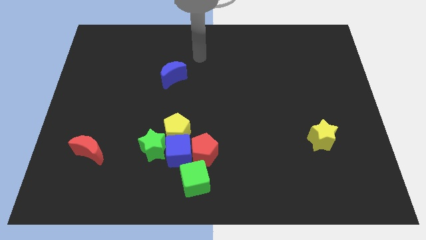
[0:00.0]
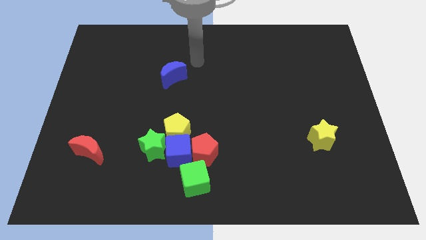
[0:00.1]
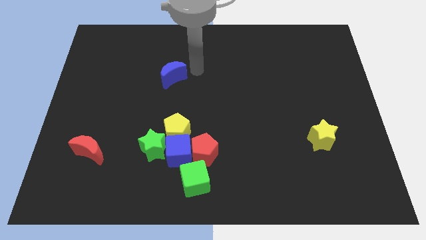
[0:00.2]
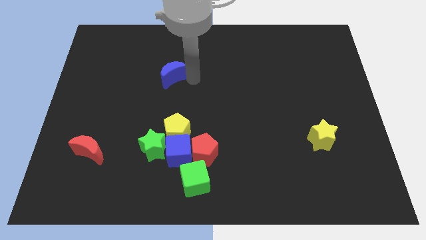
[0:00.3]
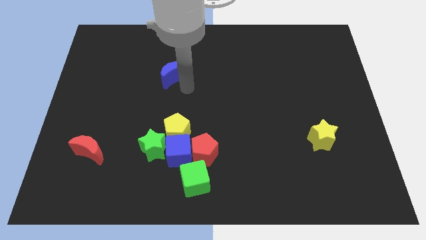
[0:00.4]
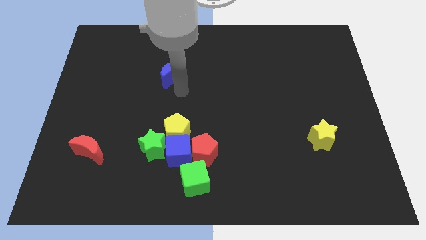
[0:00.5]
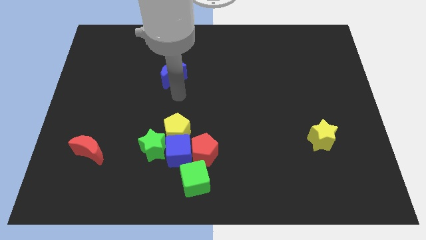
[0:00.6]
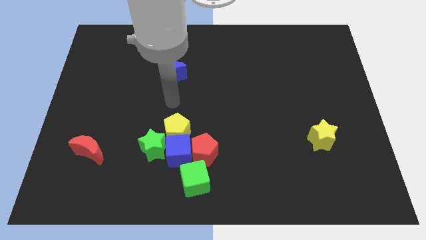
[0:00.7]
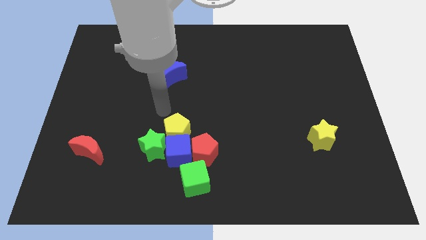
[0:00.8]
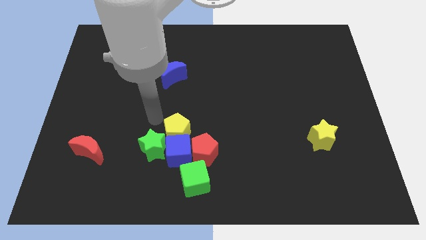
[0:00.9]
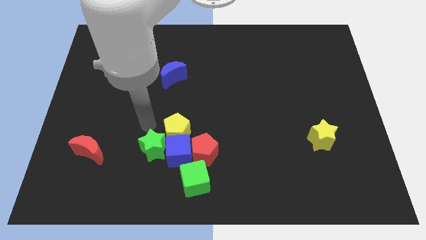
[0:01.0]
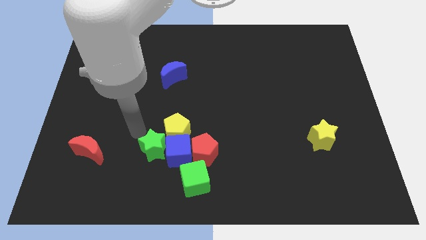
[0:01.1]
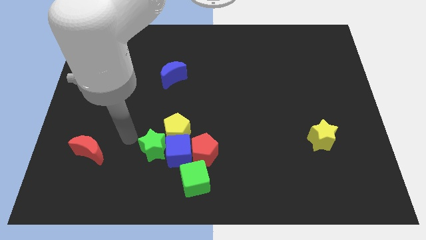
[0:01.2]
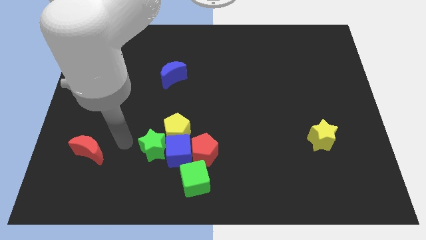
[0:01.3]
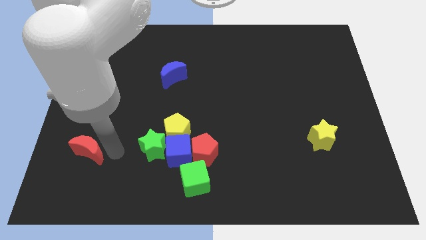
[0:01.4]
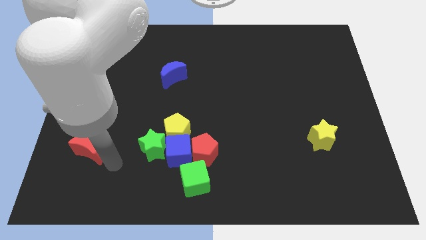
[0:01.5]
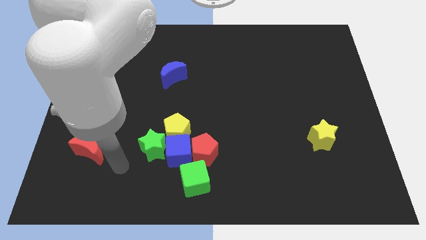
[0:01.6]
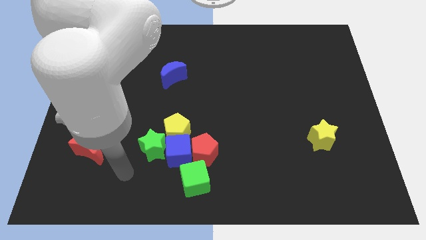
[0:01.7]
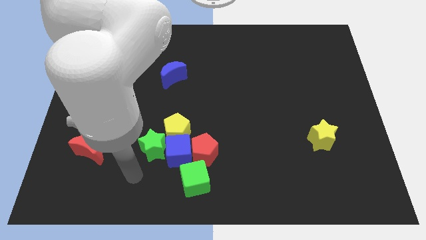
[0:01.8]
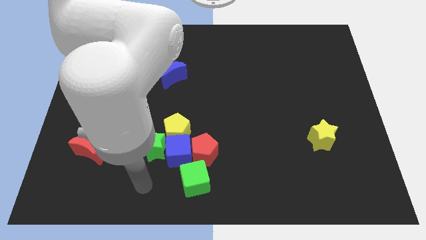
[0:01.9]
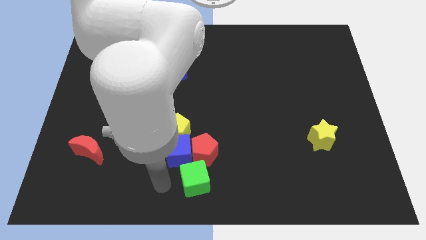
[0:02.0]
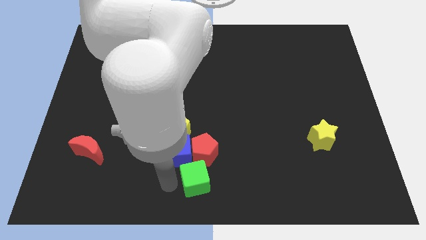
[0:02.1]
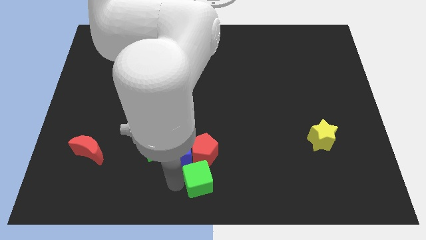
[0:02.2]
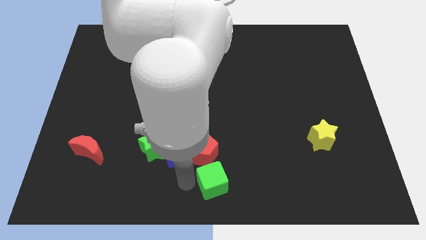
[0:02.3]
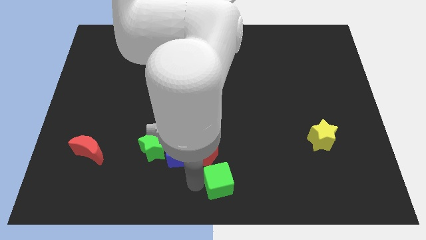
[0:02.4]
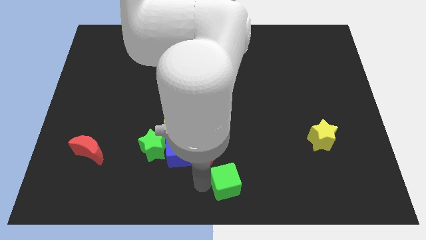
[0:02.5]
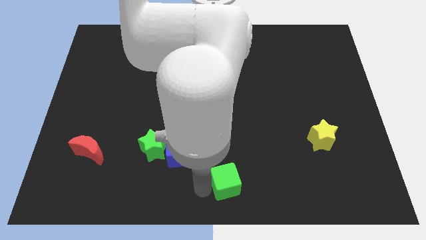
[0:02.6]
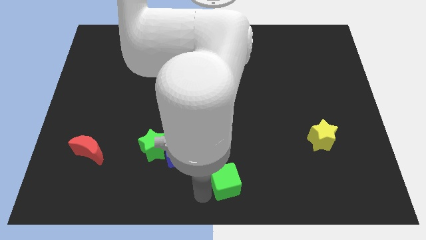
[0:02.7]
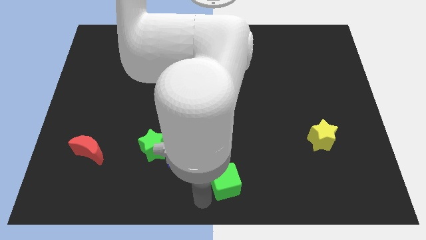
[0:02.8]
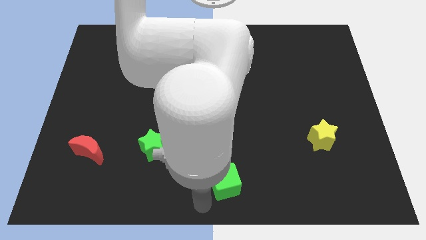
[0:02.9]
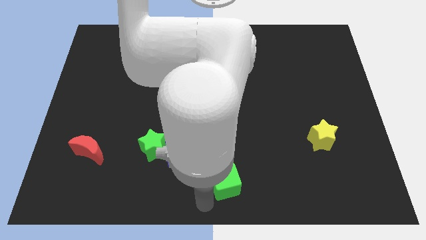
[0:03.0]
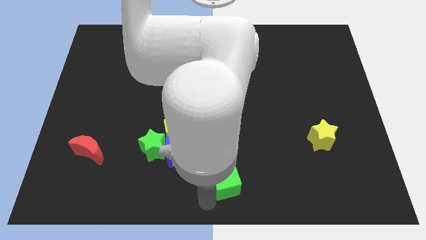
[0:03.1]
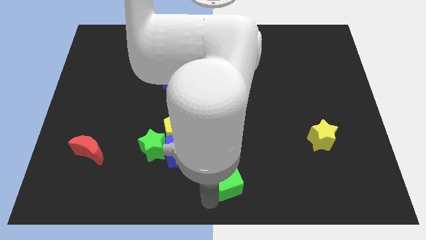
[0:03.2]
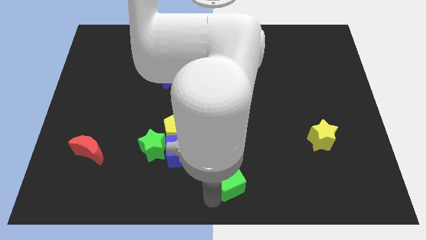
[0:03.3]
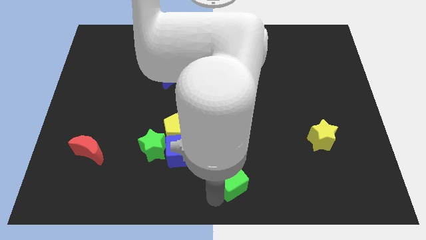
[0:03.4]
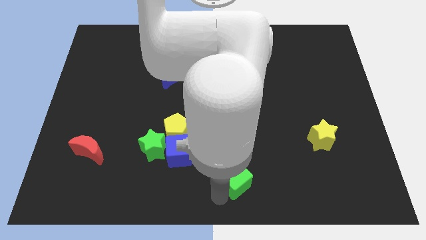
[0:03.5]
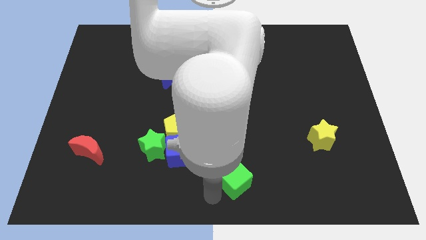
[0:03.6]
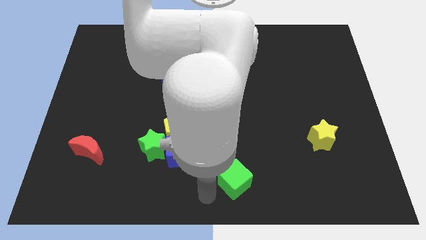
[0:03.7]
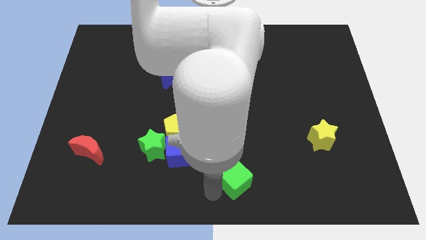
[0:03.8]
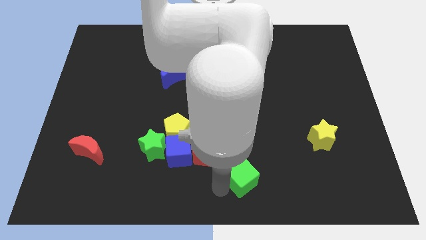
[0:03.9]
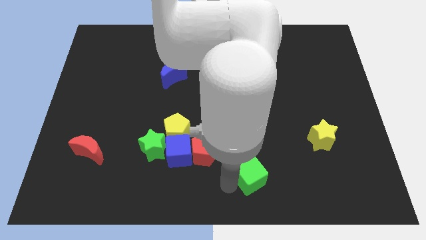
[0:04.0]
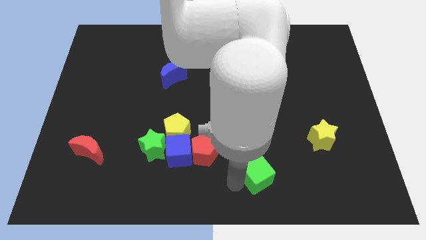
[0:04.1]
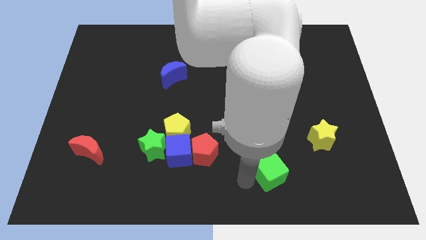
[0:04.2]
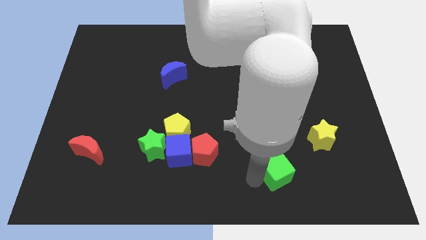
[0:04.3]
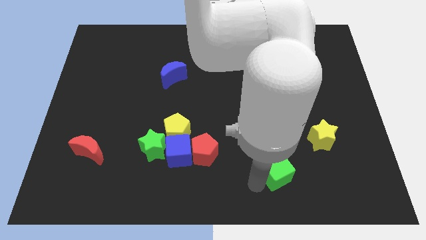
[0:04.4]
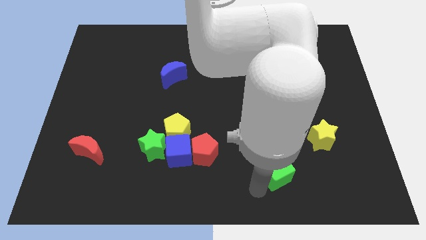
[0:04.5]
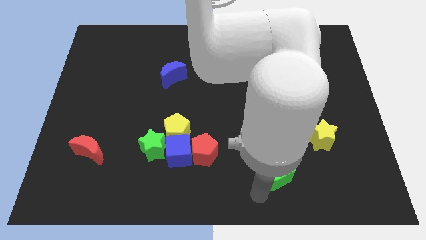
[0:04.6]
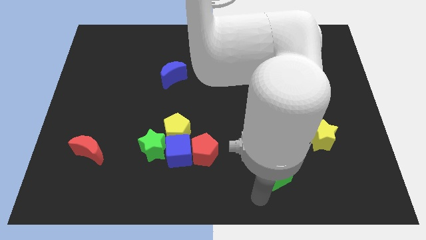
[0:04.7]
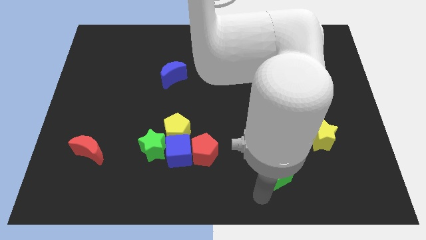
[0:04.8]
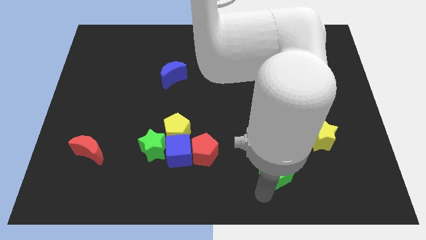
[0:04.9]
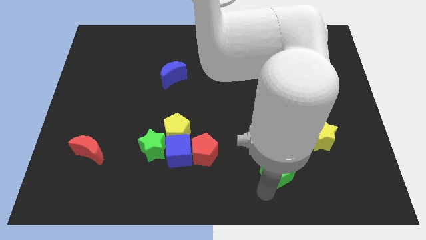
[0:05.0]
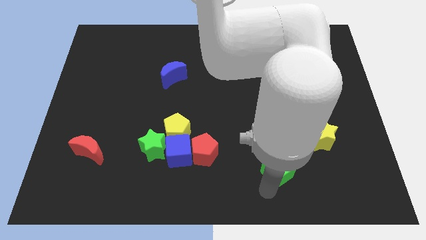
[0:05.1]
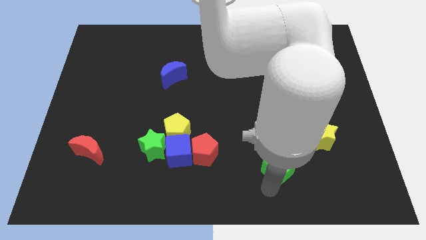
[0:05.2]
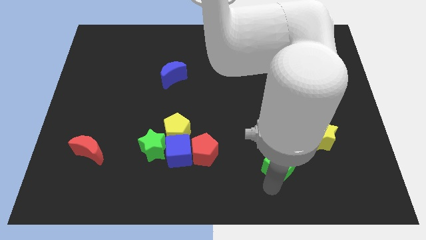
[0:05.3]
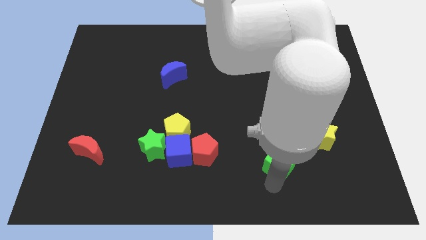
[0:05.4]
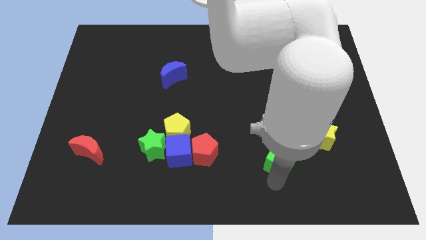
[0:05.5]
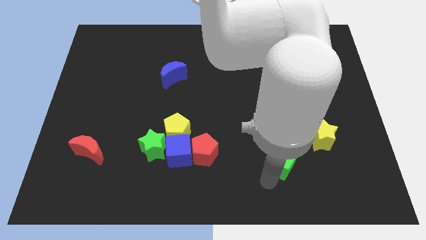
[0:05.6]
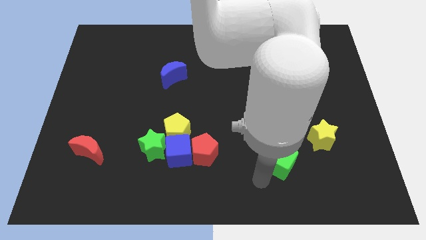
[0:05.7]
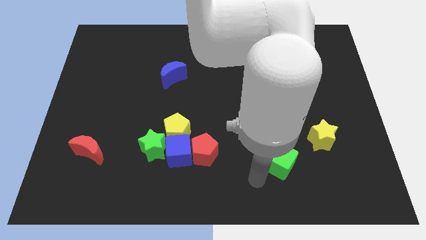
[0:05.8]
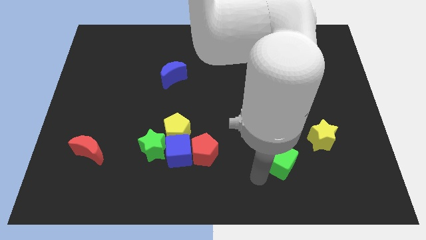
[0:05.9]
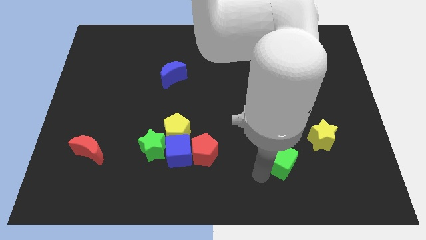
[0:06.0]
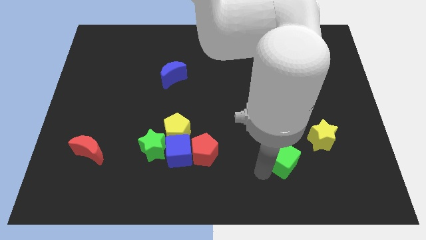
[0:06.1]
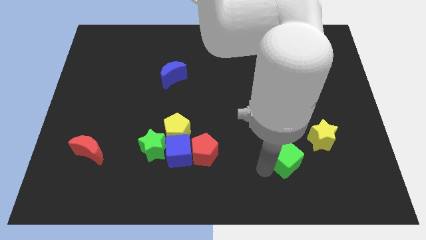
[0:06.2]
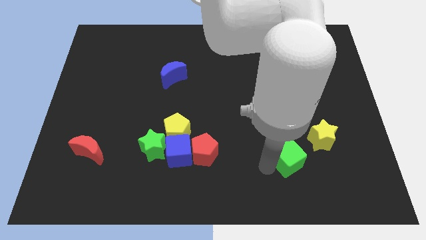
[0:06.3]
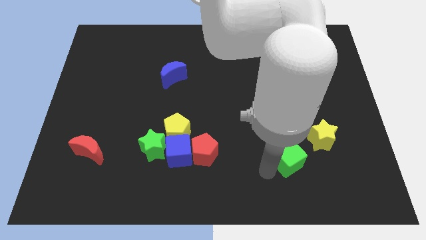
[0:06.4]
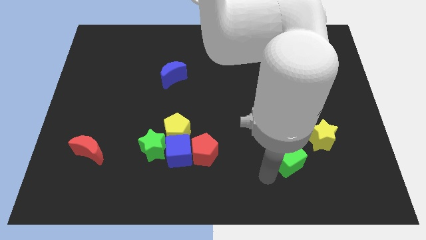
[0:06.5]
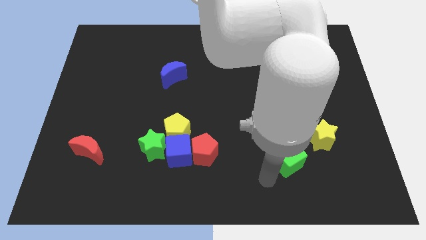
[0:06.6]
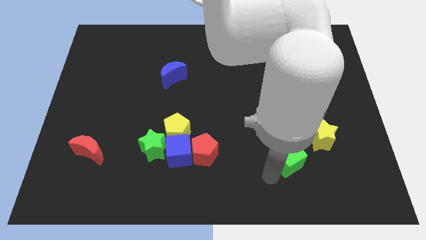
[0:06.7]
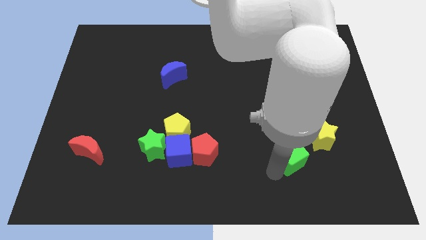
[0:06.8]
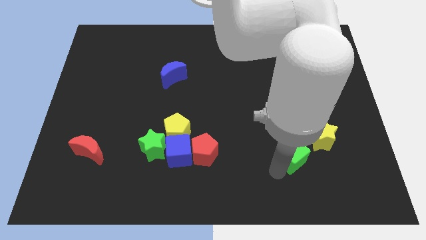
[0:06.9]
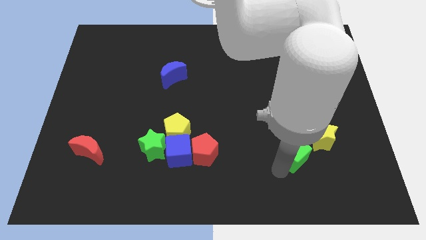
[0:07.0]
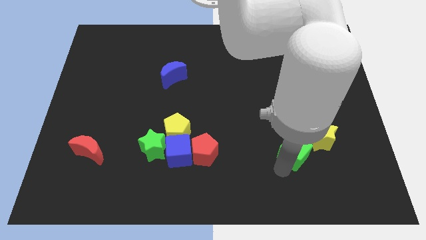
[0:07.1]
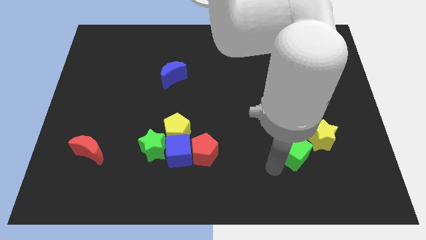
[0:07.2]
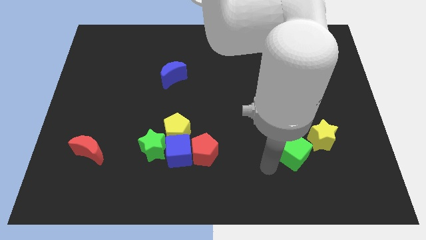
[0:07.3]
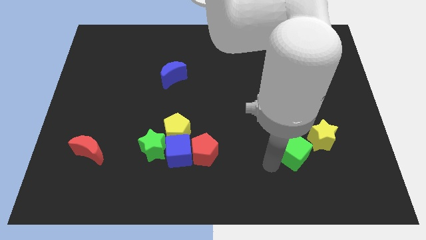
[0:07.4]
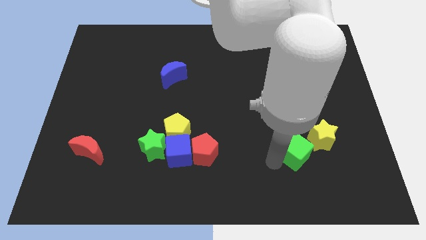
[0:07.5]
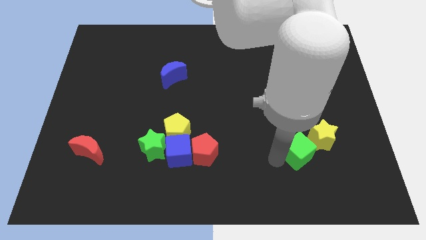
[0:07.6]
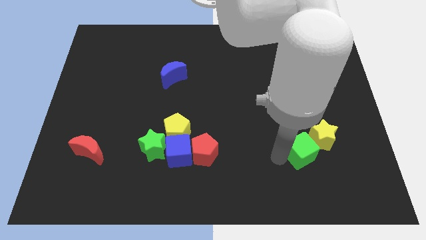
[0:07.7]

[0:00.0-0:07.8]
move the green cube close to the yellow star
